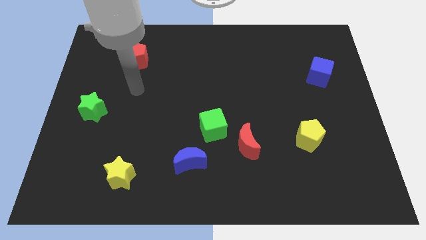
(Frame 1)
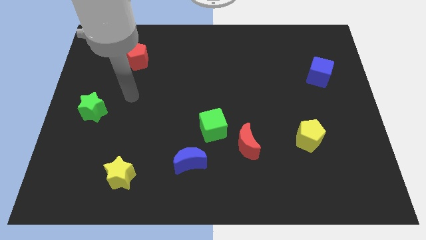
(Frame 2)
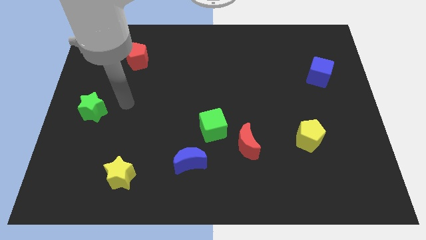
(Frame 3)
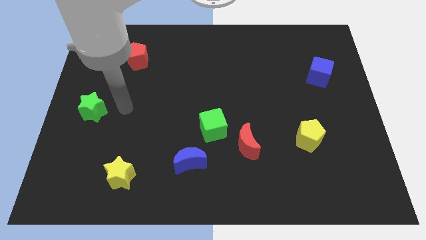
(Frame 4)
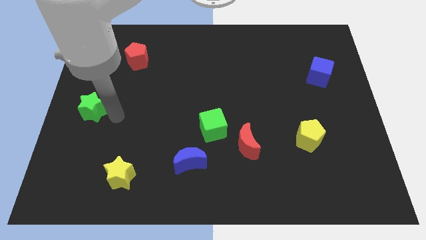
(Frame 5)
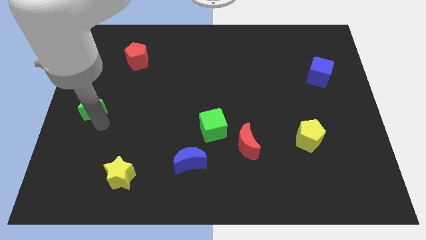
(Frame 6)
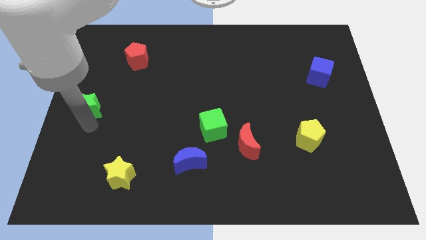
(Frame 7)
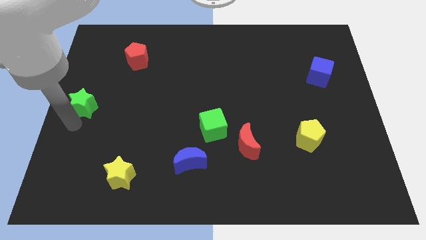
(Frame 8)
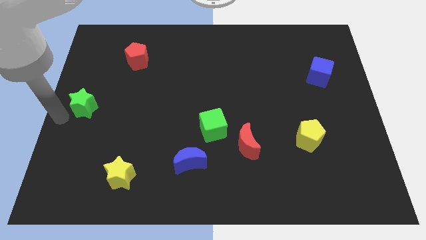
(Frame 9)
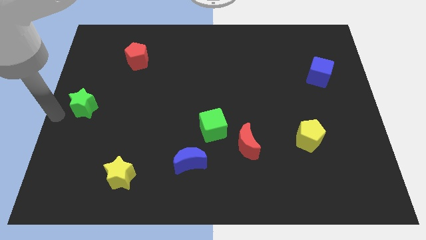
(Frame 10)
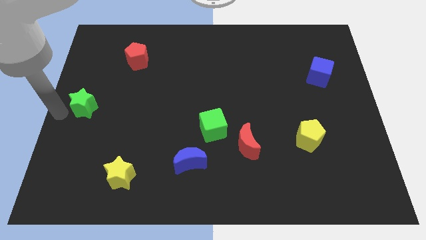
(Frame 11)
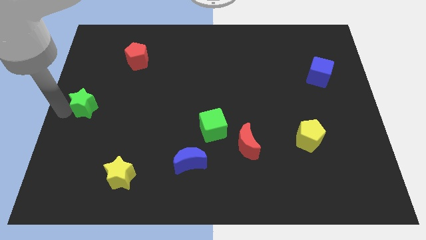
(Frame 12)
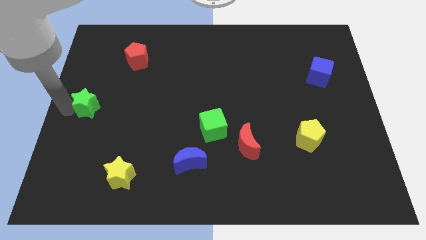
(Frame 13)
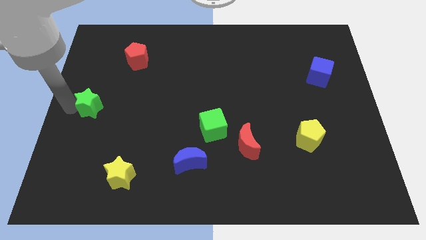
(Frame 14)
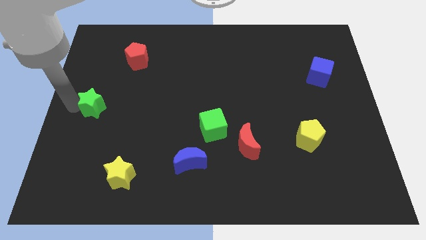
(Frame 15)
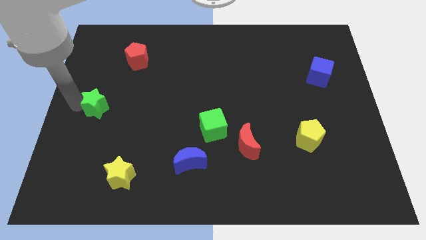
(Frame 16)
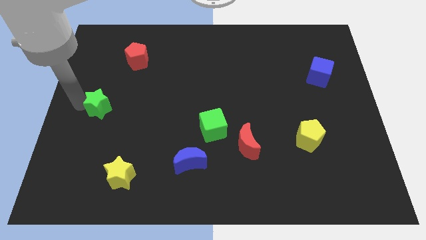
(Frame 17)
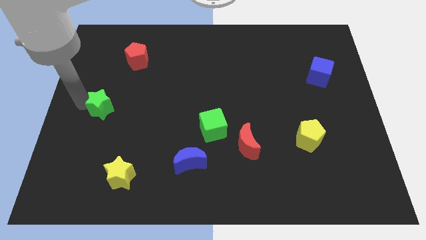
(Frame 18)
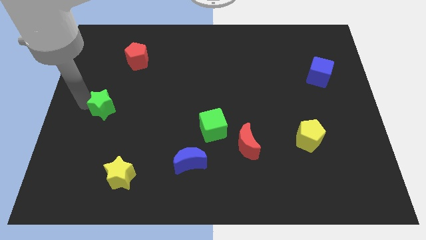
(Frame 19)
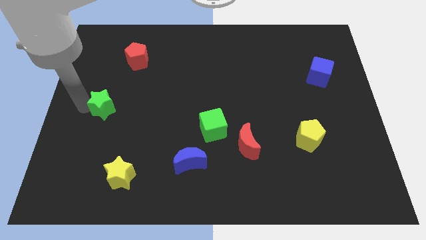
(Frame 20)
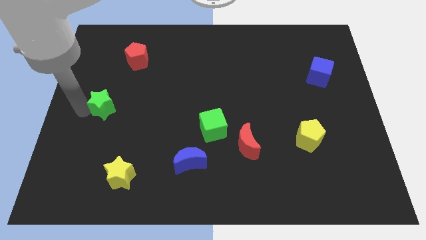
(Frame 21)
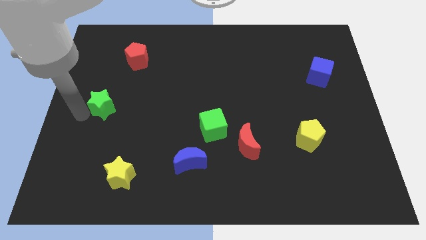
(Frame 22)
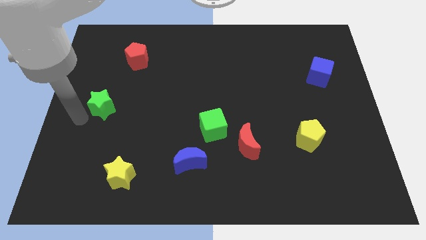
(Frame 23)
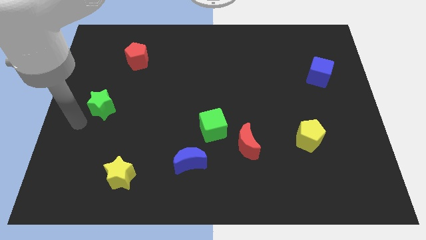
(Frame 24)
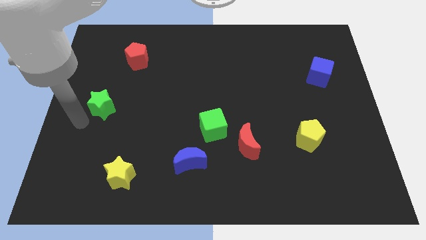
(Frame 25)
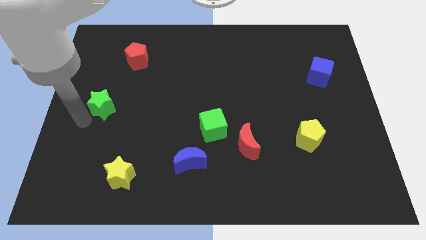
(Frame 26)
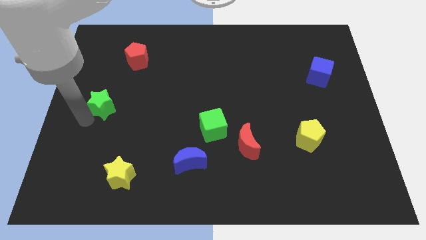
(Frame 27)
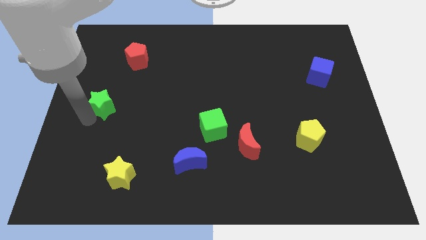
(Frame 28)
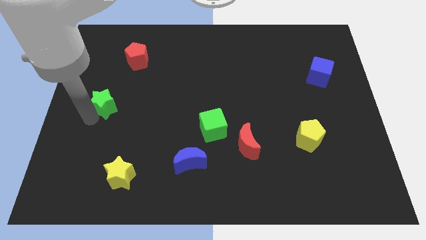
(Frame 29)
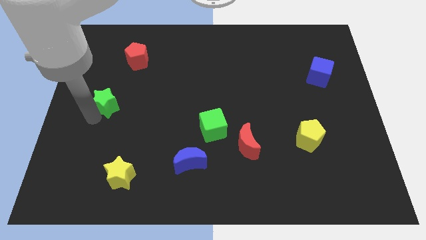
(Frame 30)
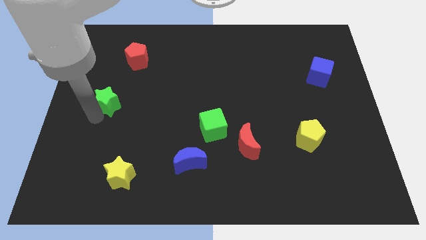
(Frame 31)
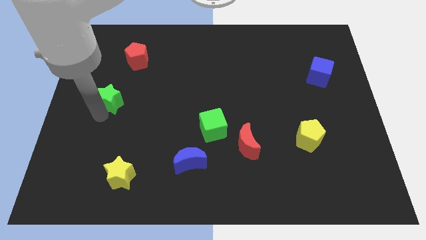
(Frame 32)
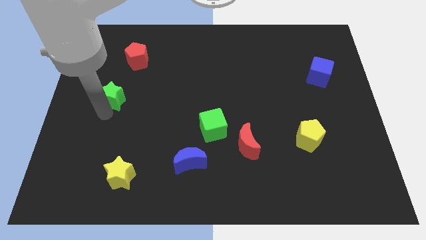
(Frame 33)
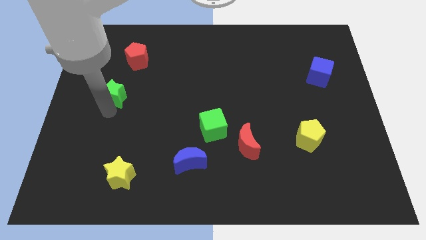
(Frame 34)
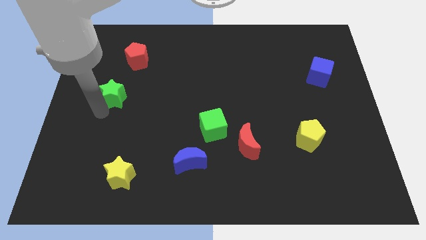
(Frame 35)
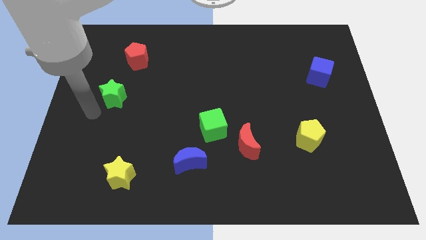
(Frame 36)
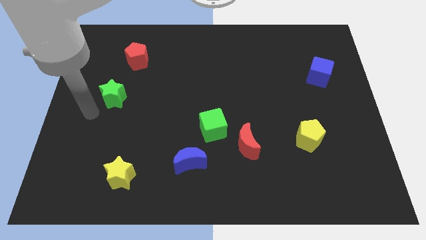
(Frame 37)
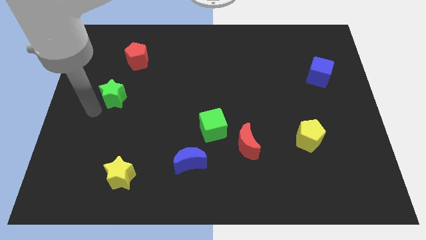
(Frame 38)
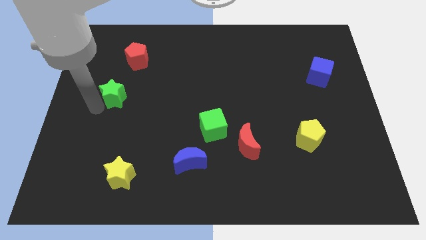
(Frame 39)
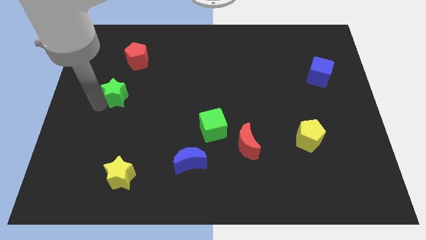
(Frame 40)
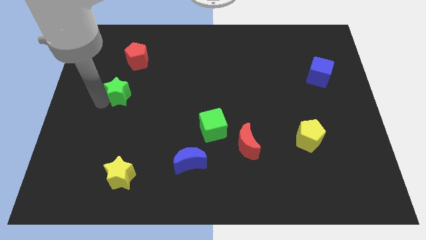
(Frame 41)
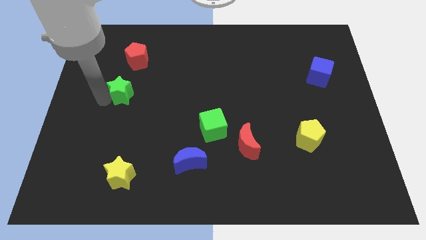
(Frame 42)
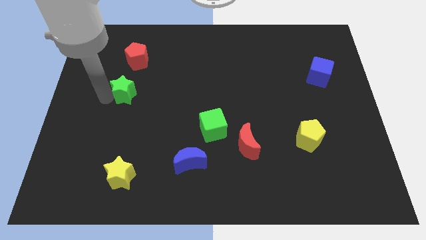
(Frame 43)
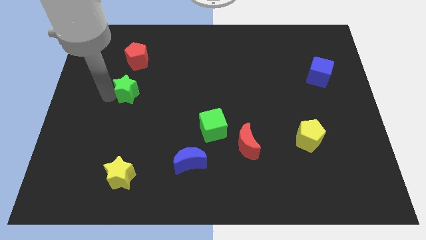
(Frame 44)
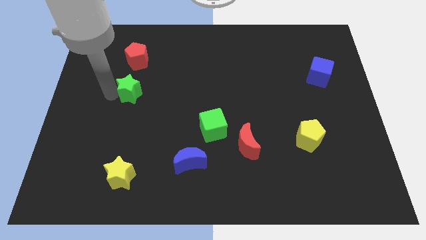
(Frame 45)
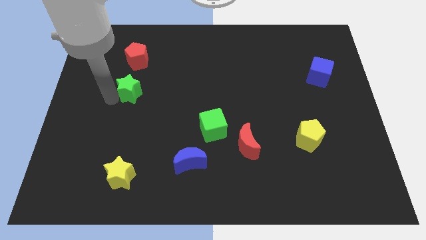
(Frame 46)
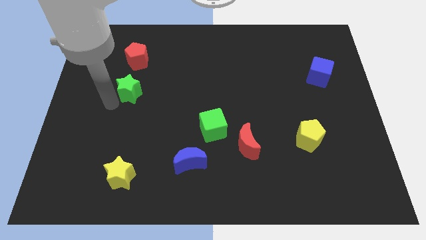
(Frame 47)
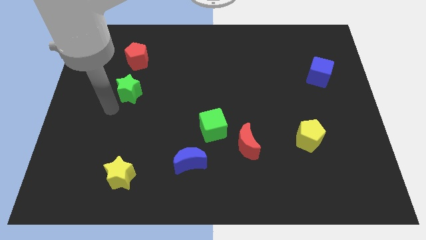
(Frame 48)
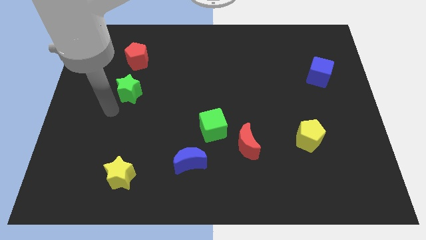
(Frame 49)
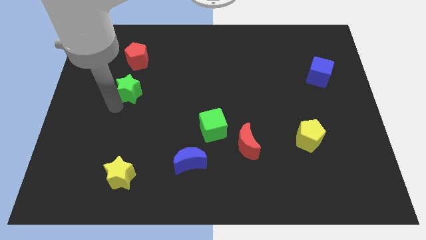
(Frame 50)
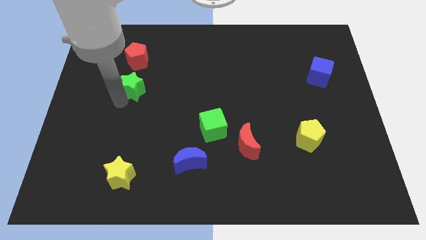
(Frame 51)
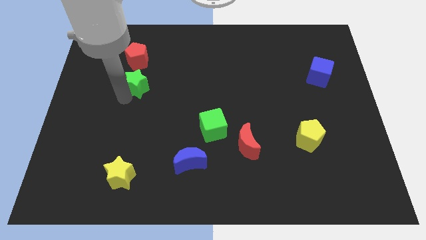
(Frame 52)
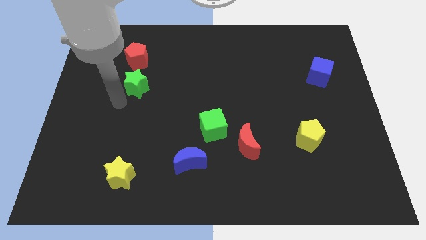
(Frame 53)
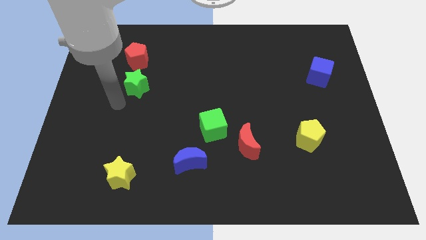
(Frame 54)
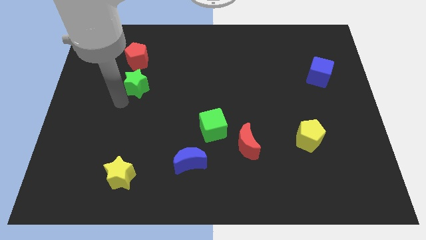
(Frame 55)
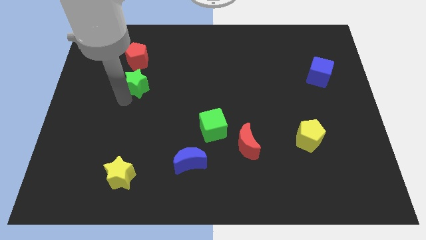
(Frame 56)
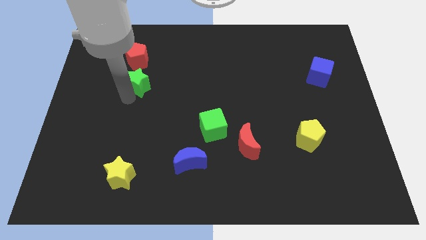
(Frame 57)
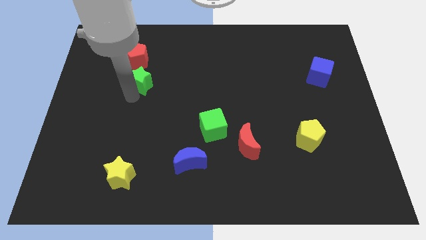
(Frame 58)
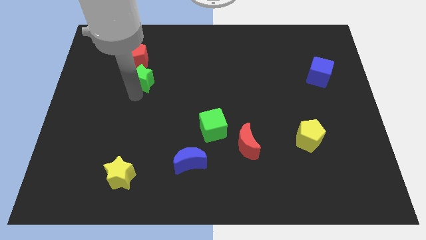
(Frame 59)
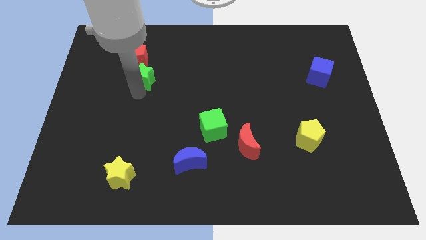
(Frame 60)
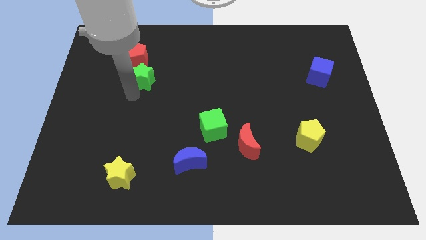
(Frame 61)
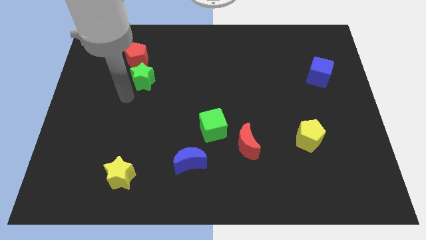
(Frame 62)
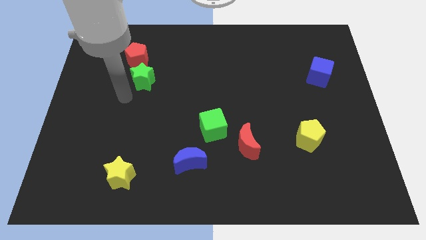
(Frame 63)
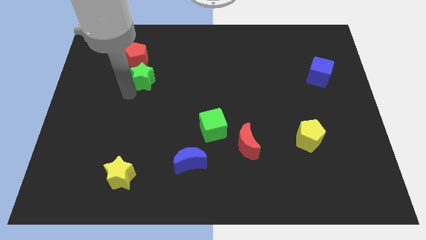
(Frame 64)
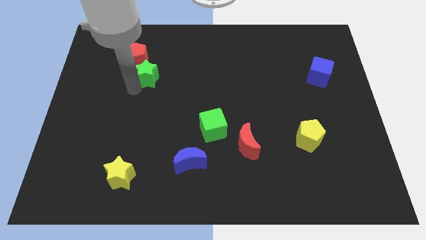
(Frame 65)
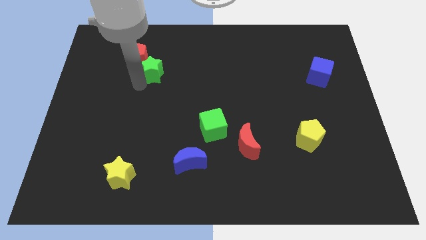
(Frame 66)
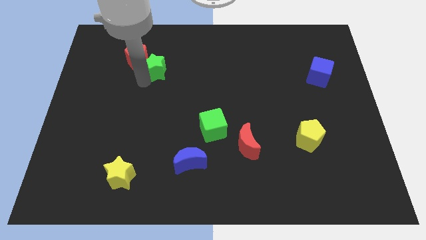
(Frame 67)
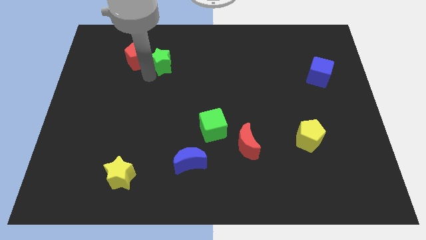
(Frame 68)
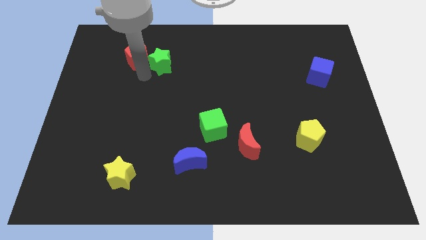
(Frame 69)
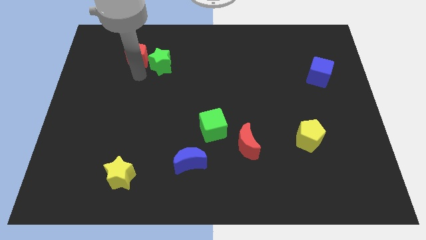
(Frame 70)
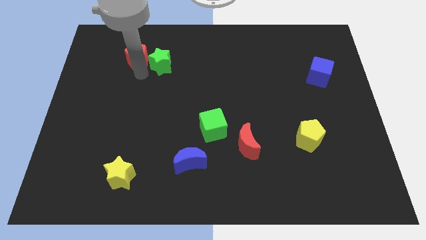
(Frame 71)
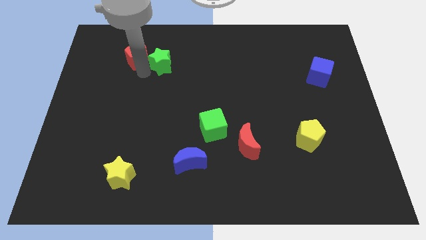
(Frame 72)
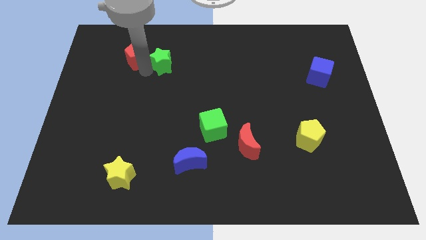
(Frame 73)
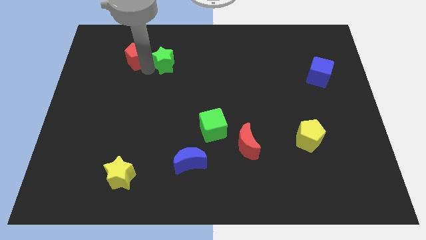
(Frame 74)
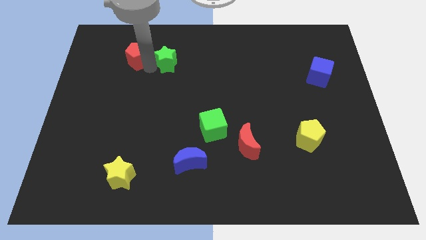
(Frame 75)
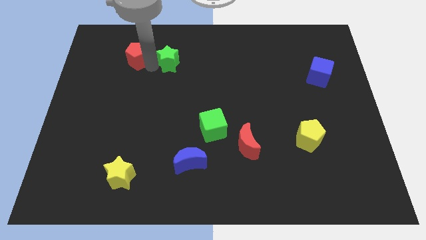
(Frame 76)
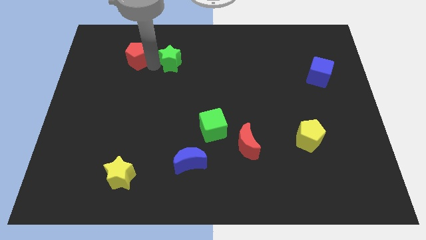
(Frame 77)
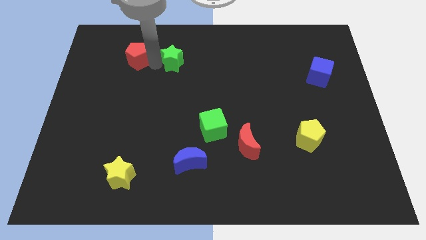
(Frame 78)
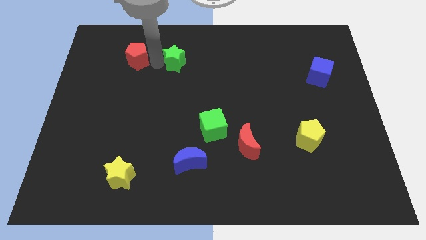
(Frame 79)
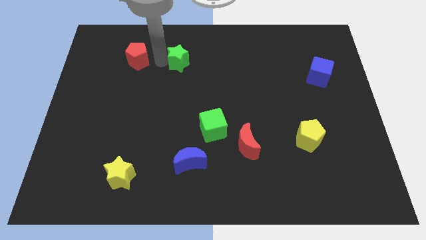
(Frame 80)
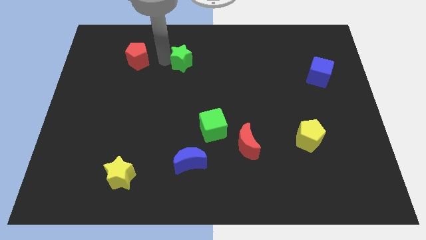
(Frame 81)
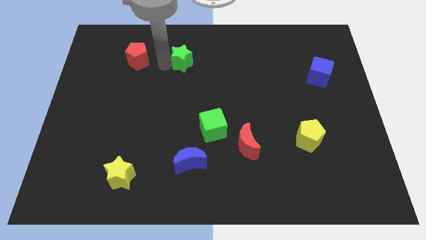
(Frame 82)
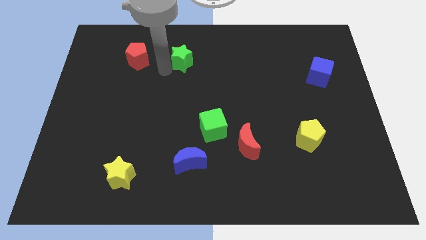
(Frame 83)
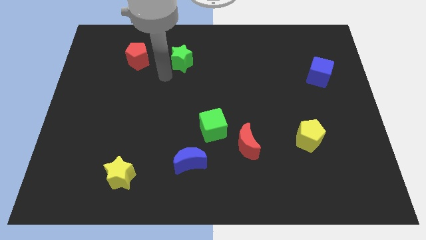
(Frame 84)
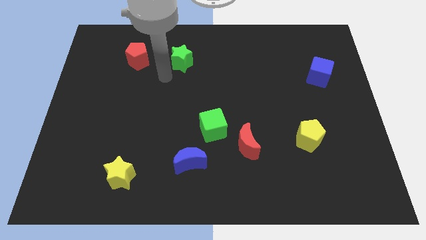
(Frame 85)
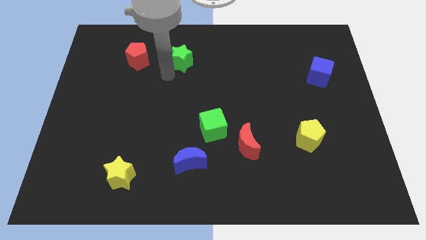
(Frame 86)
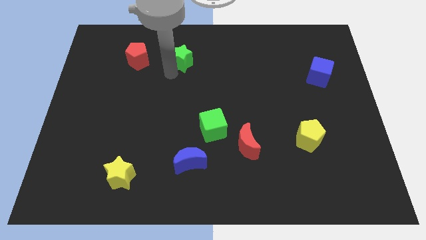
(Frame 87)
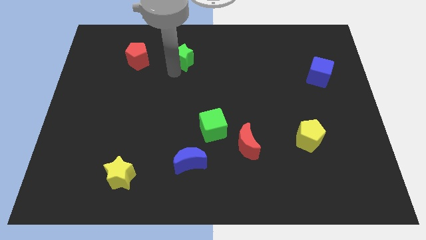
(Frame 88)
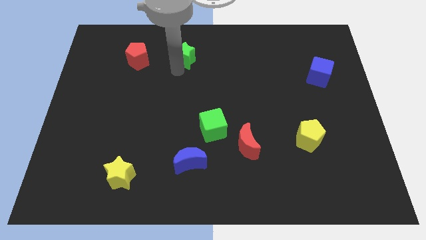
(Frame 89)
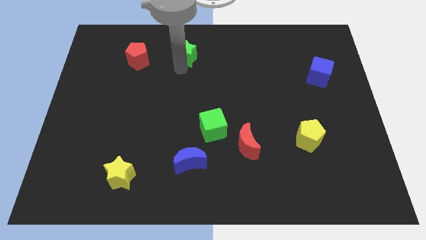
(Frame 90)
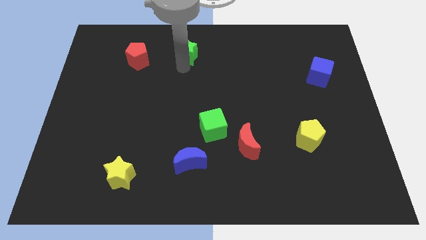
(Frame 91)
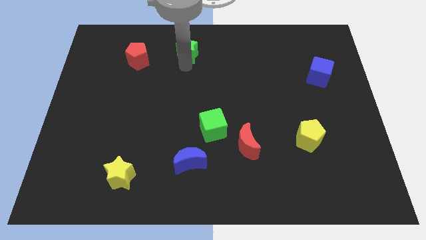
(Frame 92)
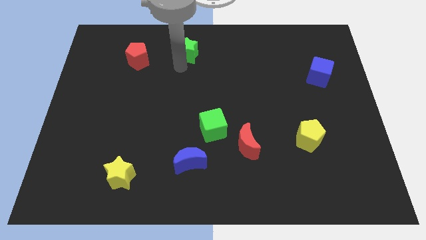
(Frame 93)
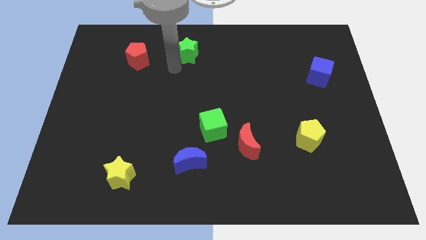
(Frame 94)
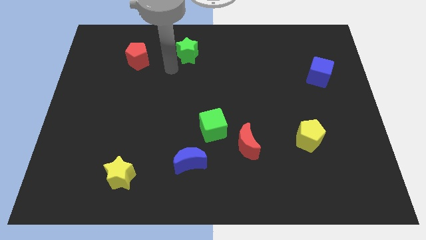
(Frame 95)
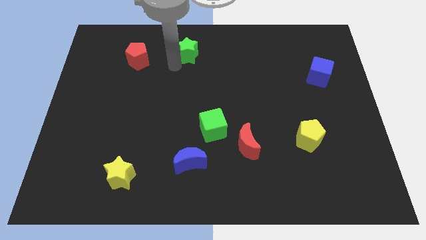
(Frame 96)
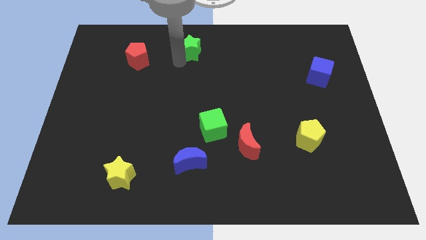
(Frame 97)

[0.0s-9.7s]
move the green star to the top
